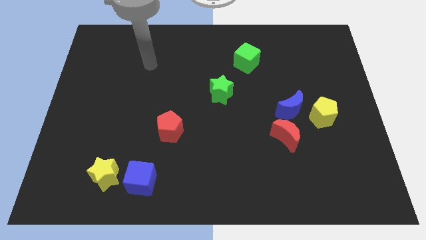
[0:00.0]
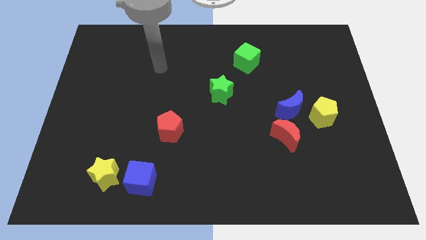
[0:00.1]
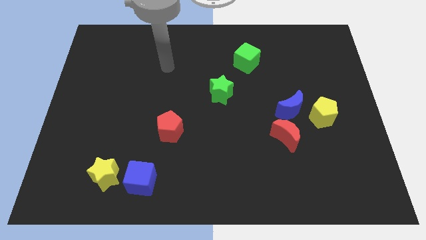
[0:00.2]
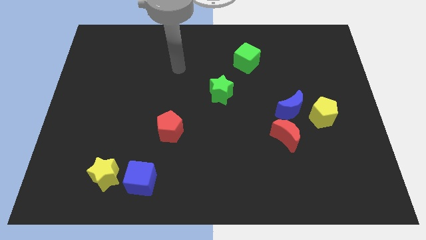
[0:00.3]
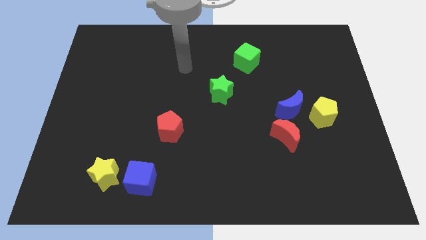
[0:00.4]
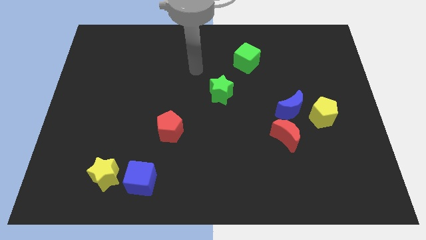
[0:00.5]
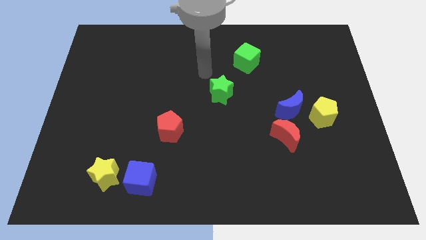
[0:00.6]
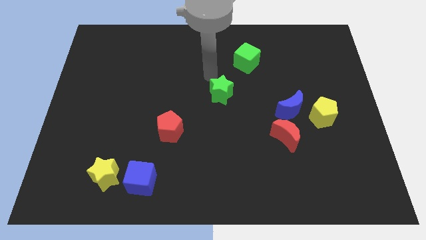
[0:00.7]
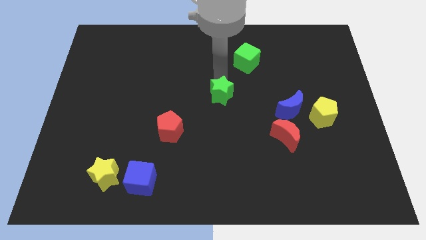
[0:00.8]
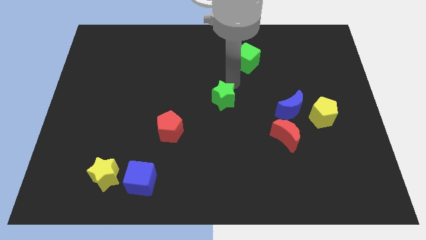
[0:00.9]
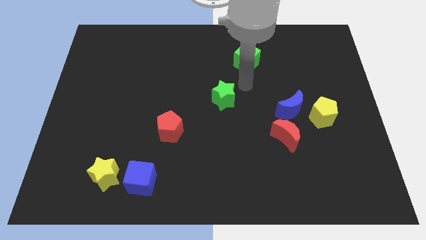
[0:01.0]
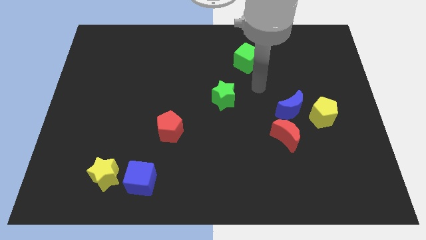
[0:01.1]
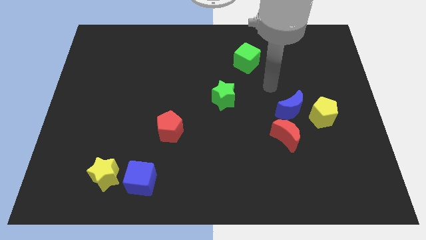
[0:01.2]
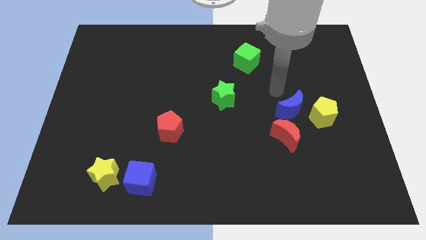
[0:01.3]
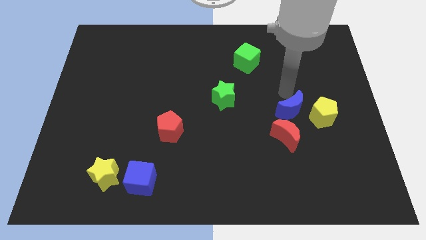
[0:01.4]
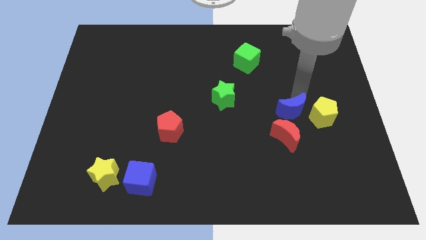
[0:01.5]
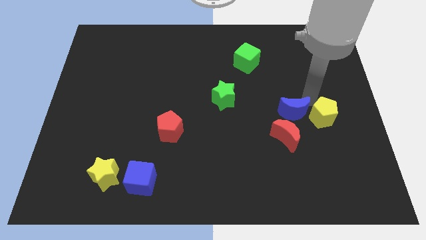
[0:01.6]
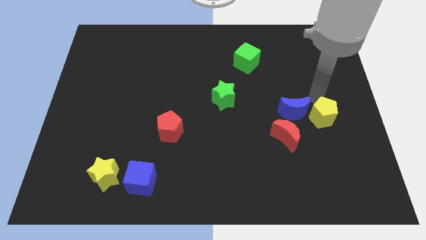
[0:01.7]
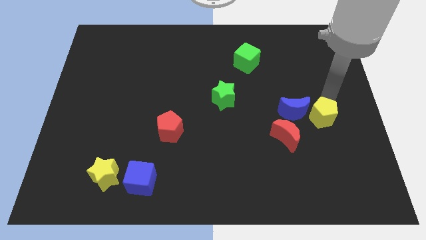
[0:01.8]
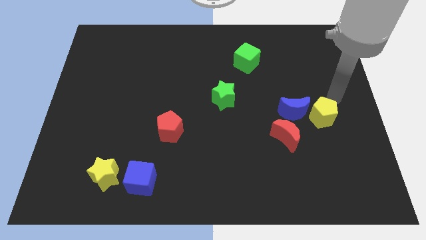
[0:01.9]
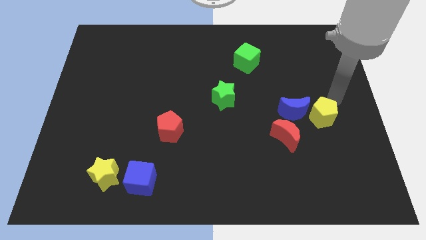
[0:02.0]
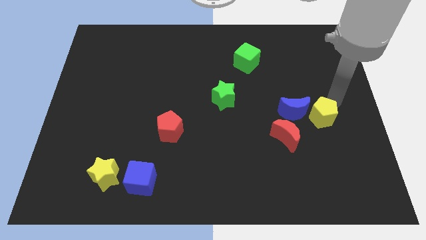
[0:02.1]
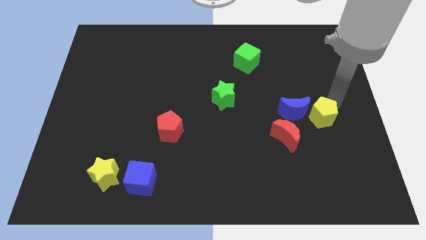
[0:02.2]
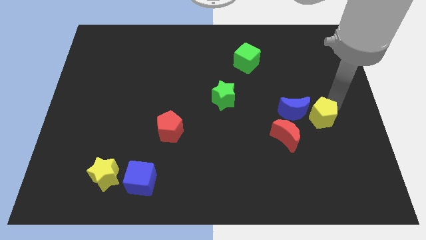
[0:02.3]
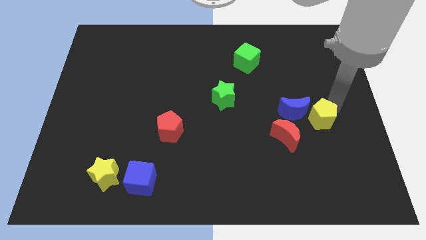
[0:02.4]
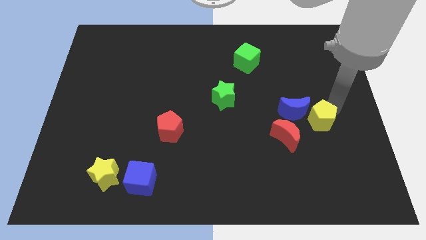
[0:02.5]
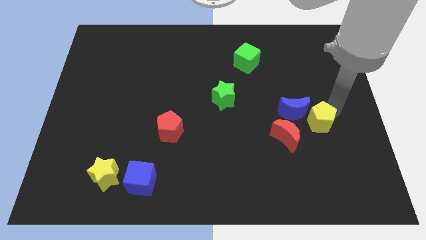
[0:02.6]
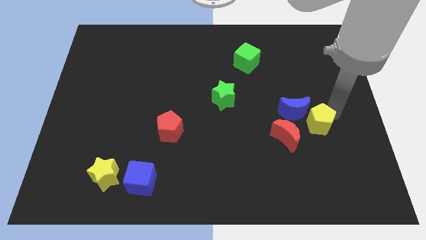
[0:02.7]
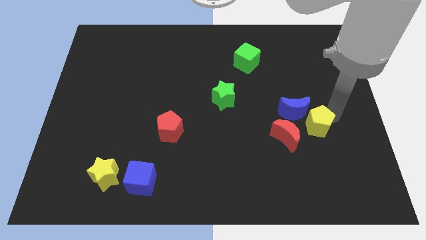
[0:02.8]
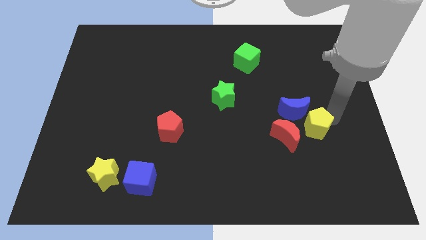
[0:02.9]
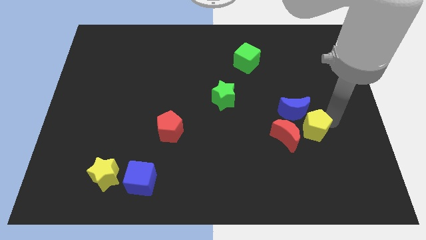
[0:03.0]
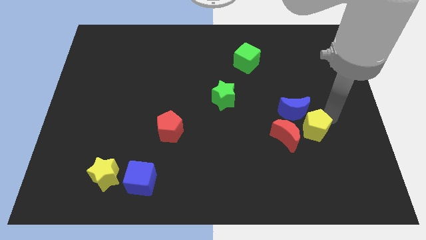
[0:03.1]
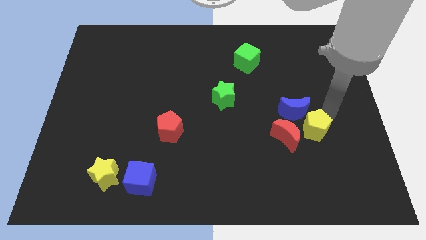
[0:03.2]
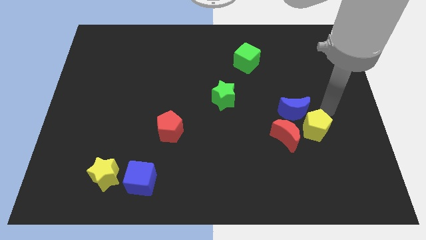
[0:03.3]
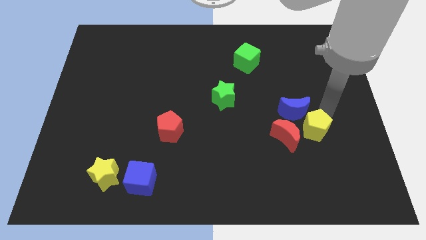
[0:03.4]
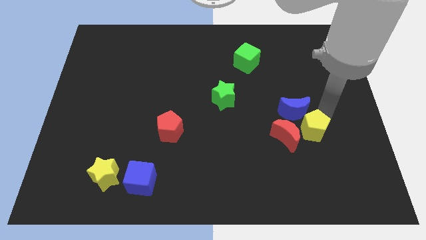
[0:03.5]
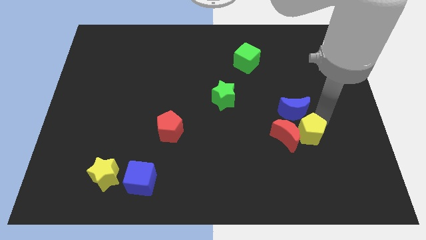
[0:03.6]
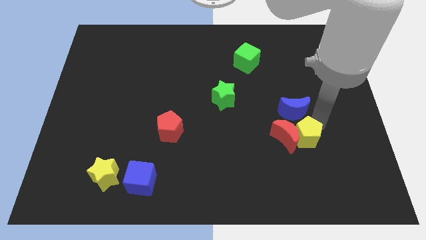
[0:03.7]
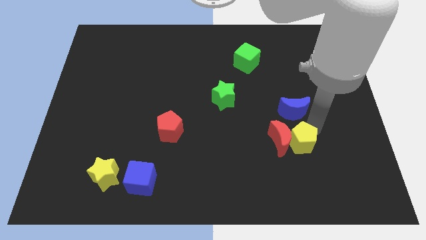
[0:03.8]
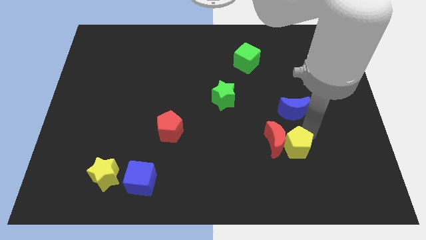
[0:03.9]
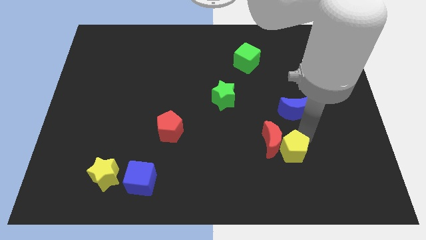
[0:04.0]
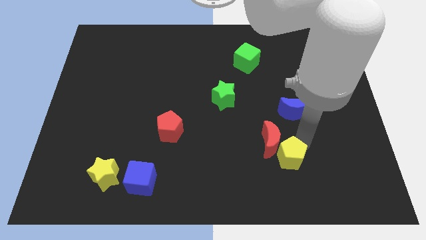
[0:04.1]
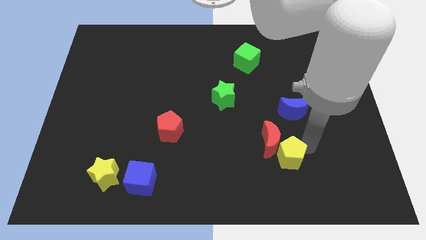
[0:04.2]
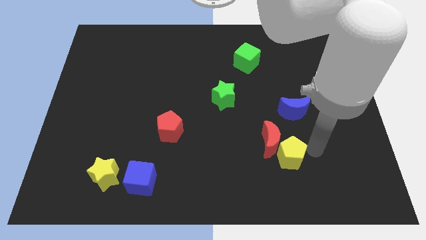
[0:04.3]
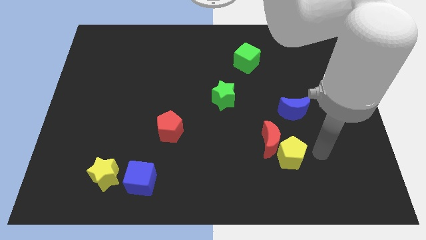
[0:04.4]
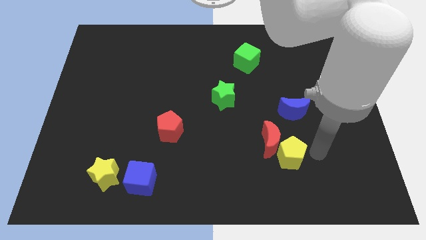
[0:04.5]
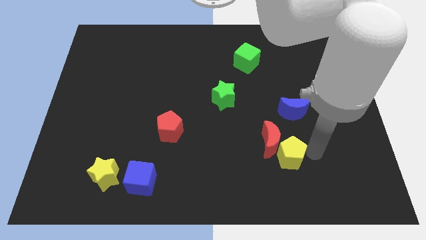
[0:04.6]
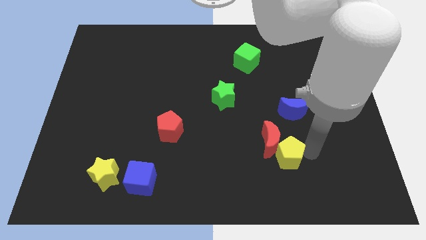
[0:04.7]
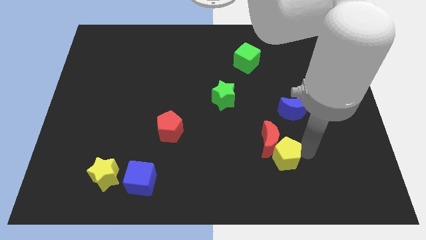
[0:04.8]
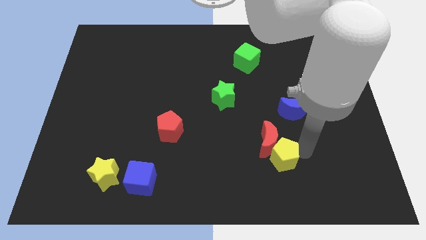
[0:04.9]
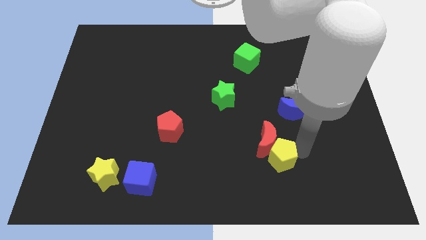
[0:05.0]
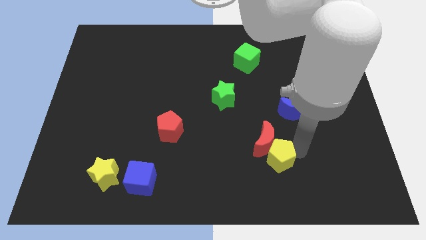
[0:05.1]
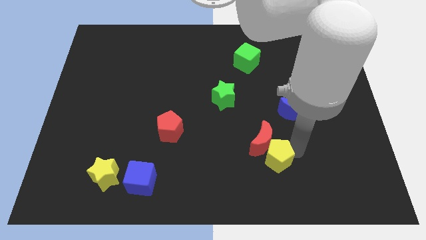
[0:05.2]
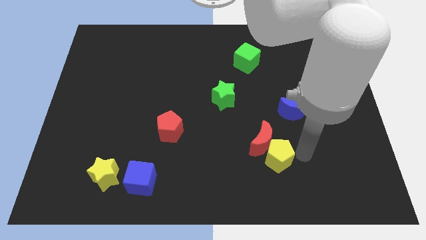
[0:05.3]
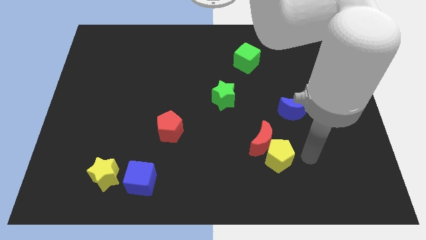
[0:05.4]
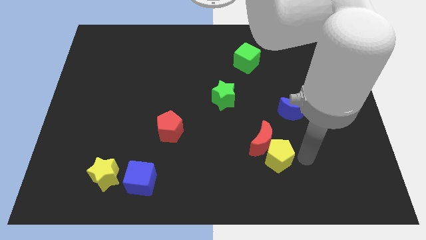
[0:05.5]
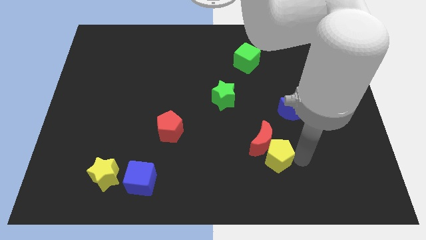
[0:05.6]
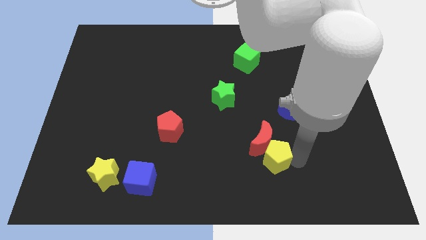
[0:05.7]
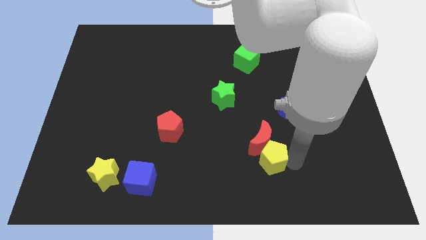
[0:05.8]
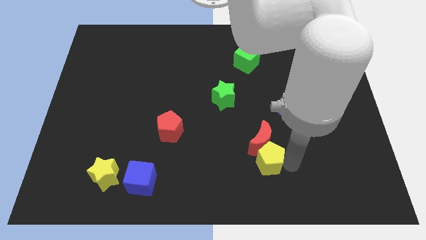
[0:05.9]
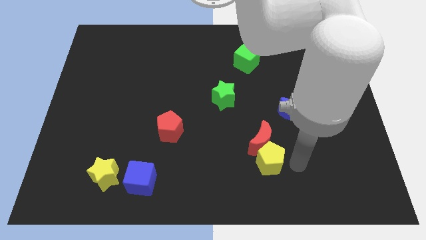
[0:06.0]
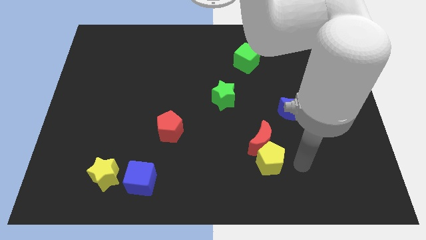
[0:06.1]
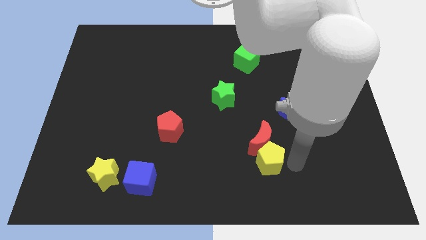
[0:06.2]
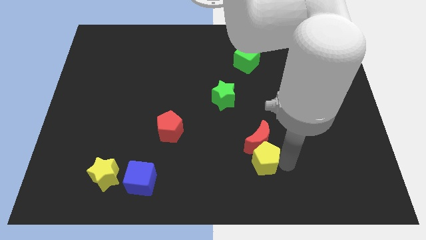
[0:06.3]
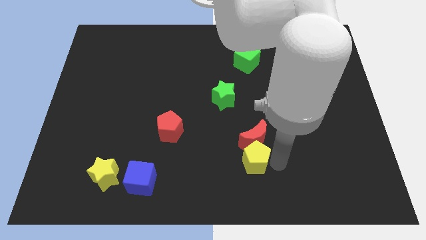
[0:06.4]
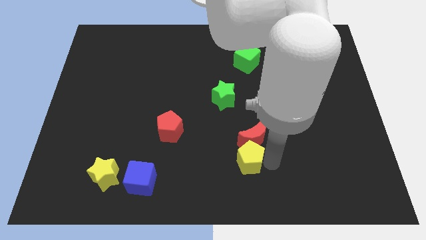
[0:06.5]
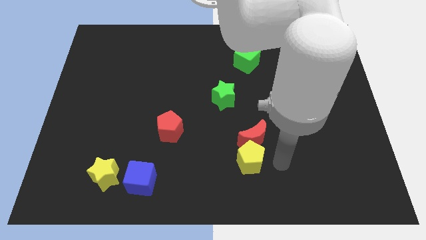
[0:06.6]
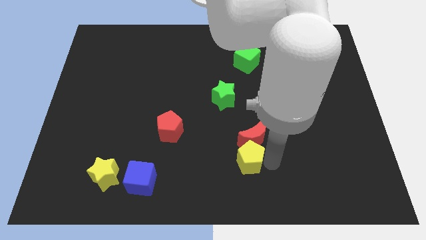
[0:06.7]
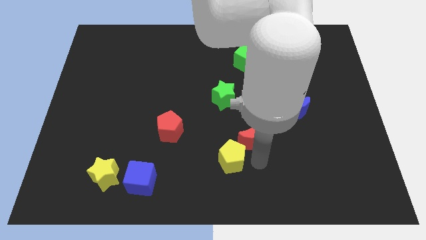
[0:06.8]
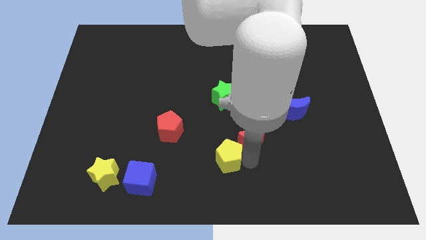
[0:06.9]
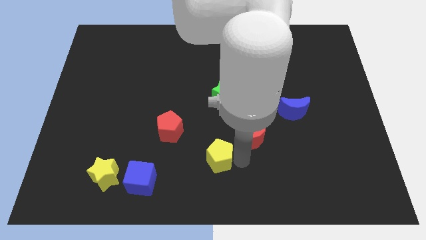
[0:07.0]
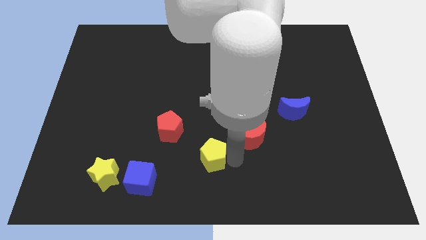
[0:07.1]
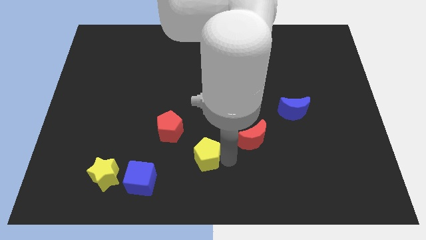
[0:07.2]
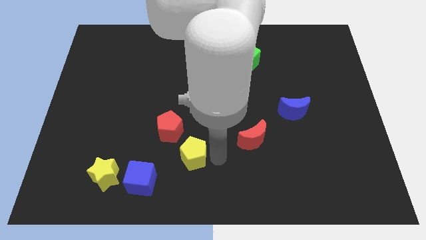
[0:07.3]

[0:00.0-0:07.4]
slide the yellow pentagon to the top right of the blue cube

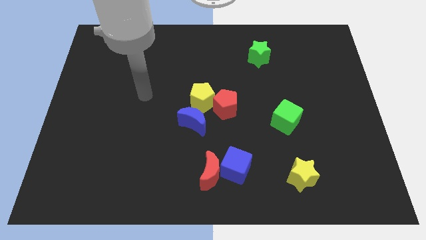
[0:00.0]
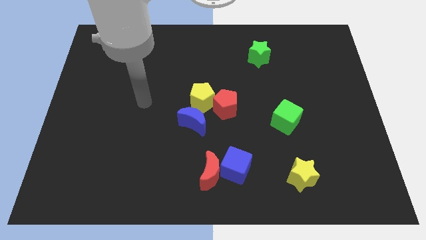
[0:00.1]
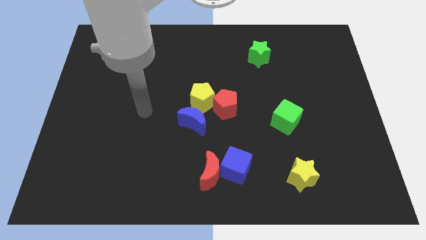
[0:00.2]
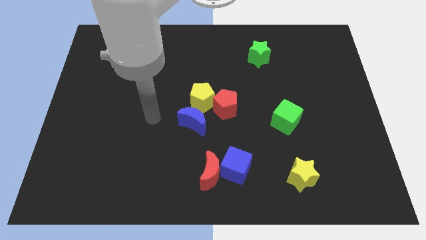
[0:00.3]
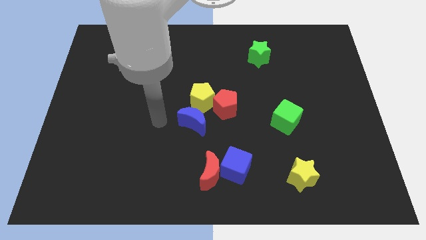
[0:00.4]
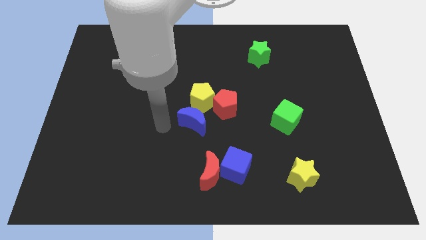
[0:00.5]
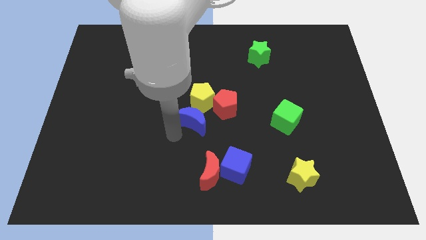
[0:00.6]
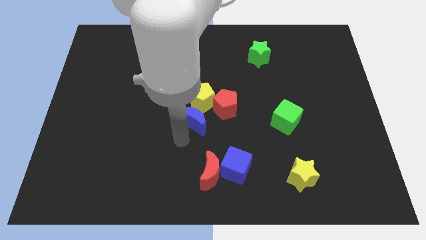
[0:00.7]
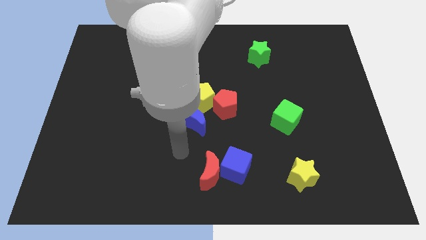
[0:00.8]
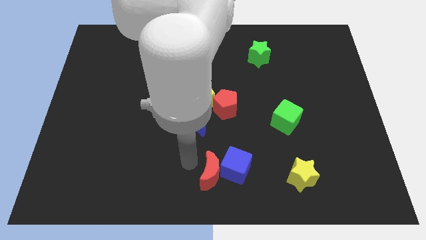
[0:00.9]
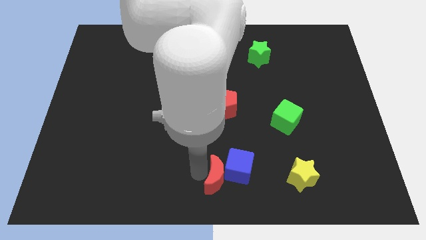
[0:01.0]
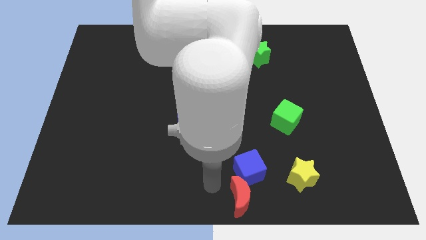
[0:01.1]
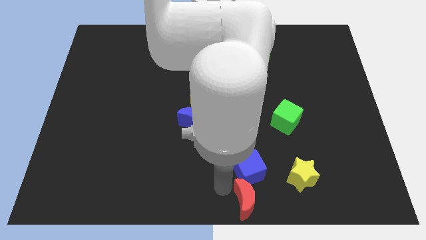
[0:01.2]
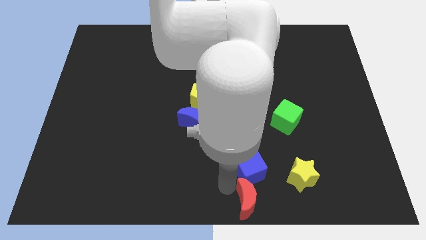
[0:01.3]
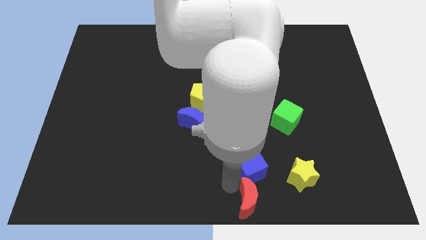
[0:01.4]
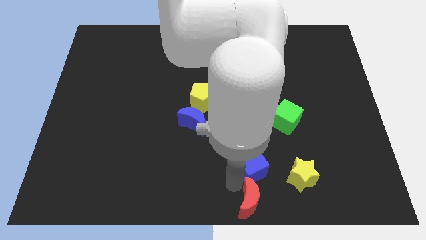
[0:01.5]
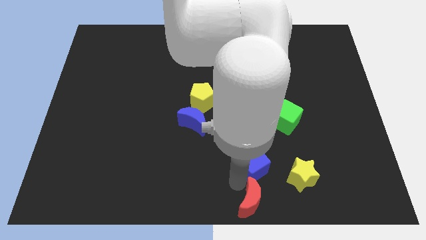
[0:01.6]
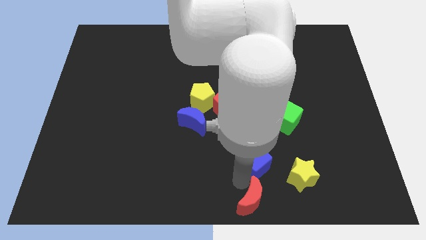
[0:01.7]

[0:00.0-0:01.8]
slide the blue cube to the top left side of the yellow star
